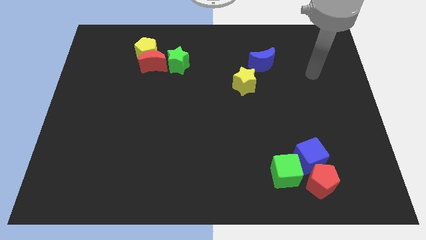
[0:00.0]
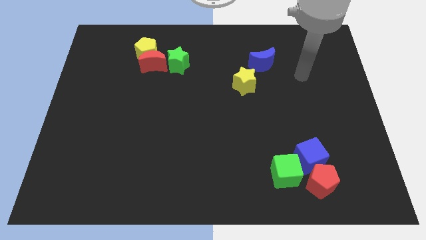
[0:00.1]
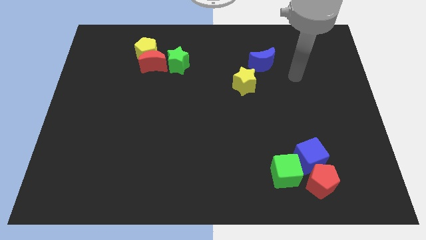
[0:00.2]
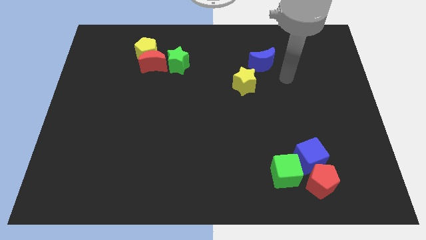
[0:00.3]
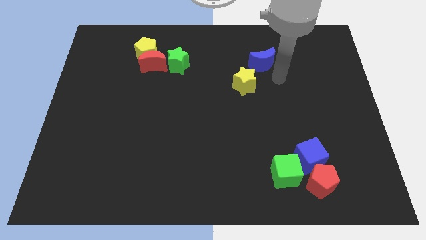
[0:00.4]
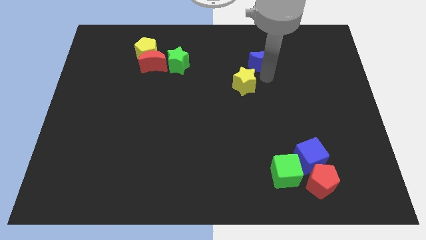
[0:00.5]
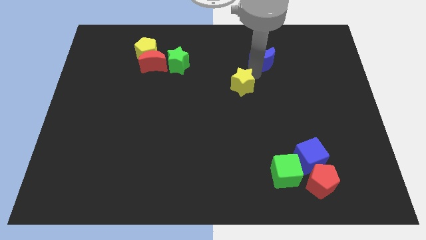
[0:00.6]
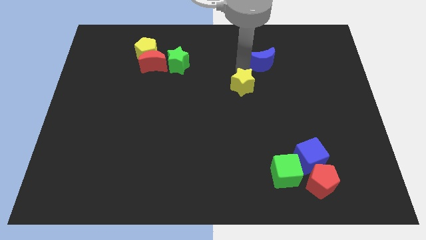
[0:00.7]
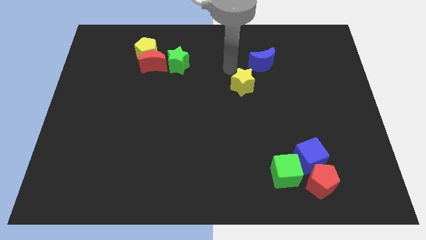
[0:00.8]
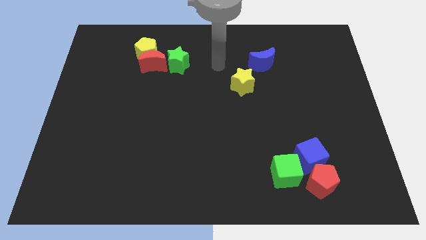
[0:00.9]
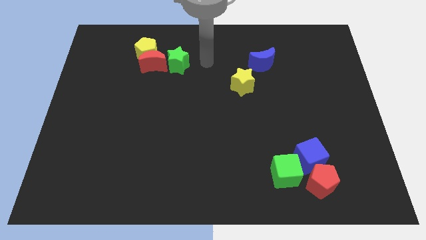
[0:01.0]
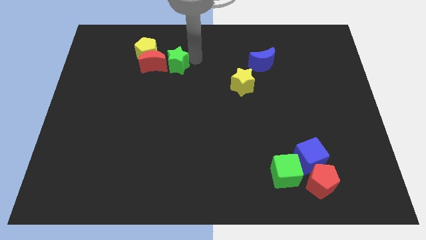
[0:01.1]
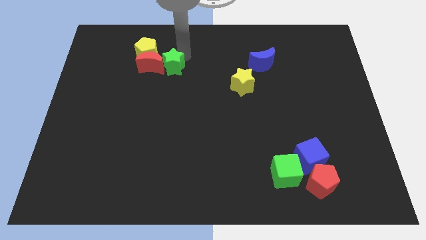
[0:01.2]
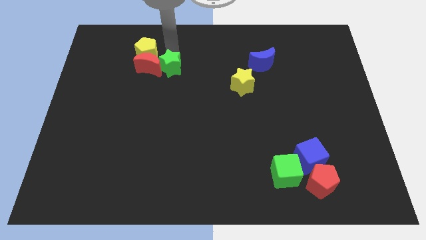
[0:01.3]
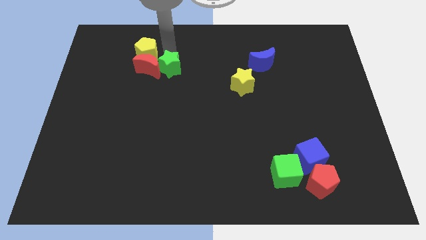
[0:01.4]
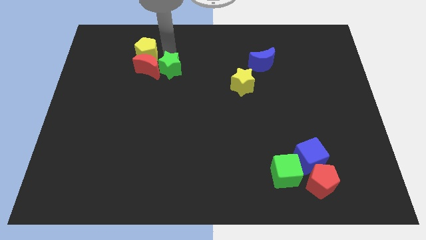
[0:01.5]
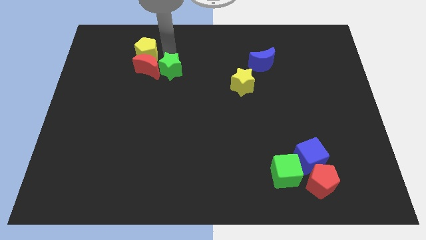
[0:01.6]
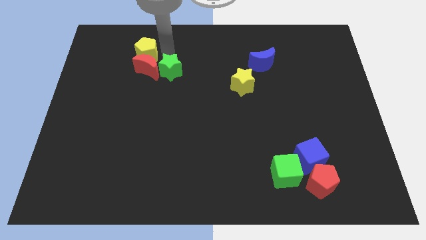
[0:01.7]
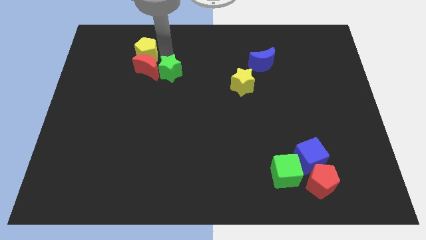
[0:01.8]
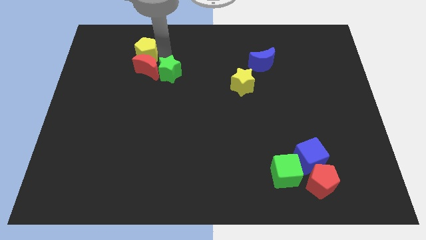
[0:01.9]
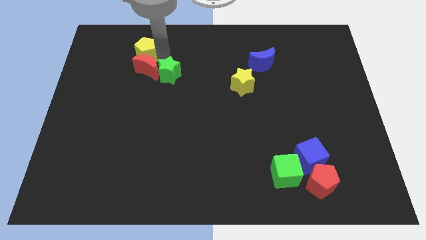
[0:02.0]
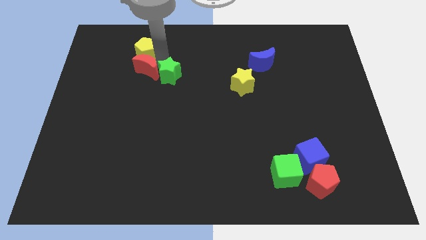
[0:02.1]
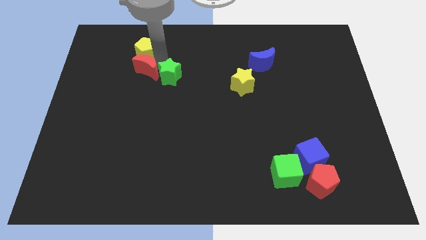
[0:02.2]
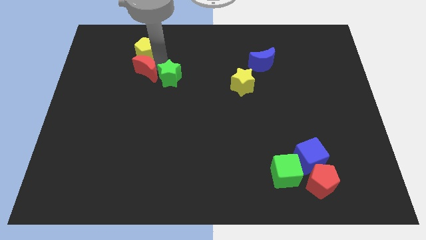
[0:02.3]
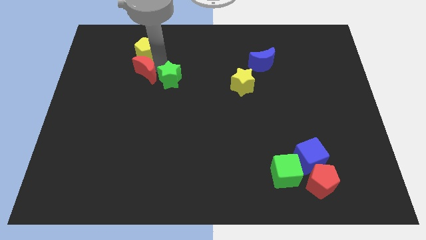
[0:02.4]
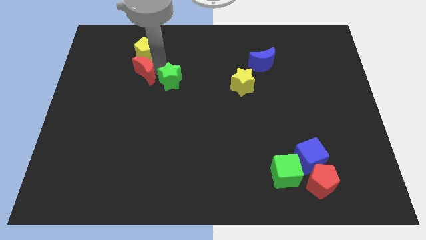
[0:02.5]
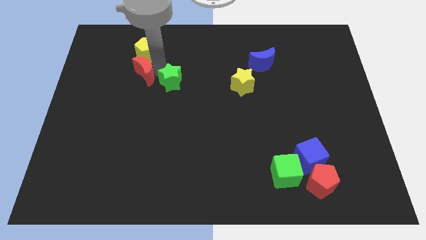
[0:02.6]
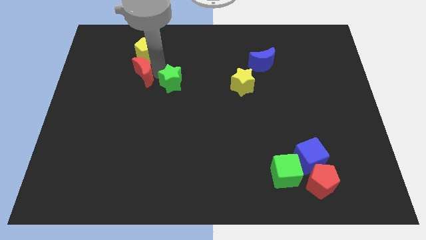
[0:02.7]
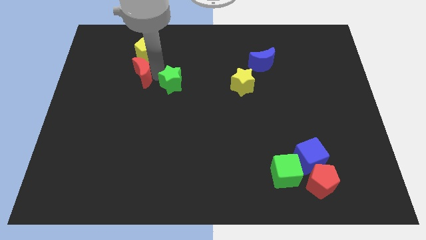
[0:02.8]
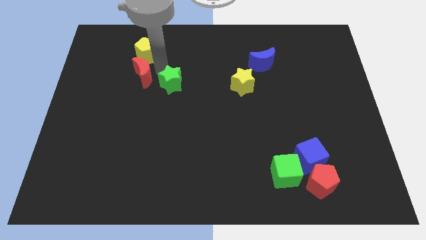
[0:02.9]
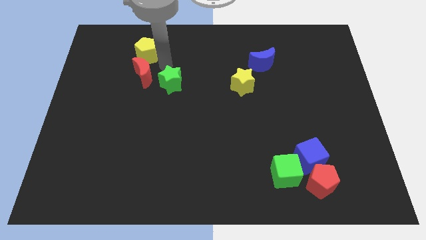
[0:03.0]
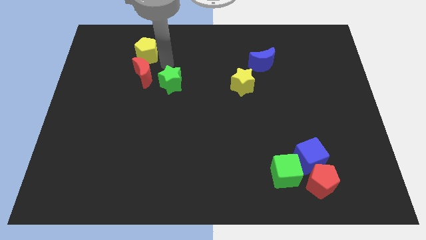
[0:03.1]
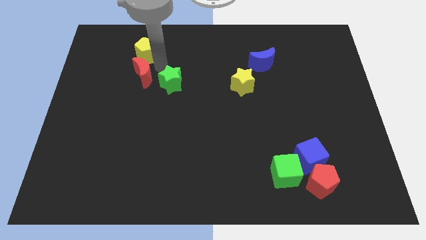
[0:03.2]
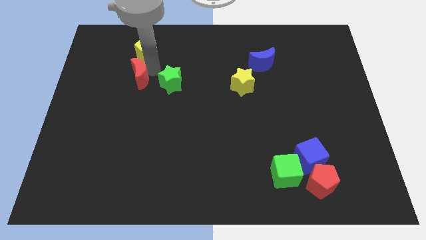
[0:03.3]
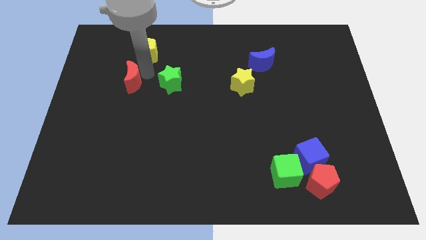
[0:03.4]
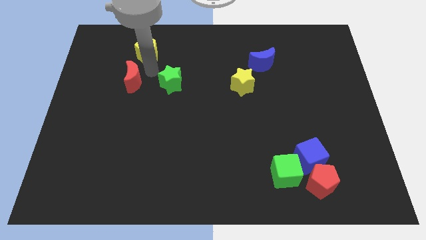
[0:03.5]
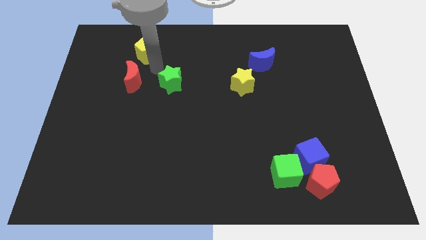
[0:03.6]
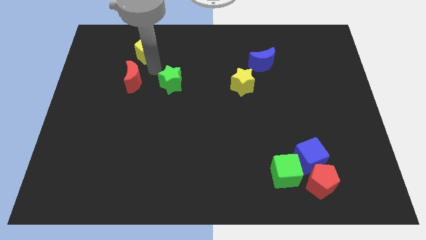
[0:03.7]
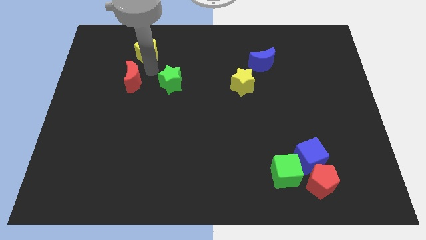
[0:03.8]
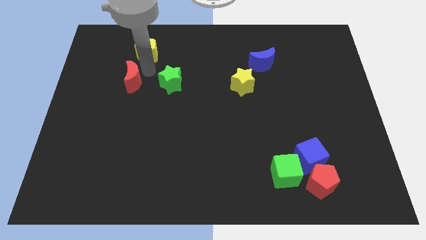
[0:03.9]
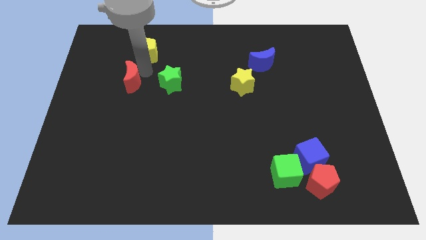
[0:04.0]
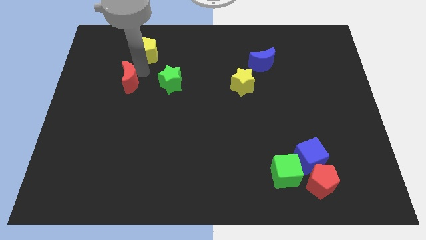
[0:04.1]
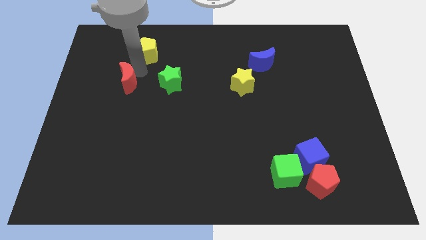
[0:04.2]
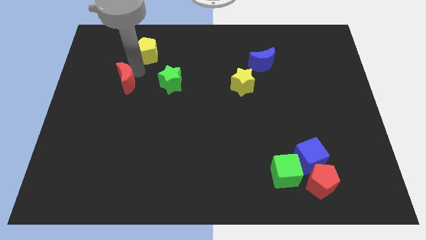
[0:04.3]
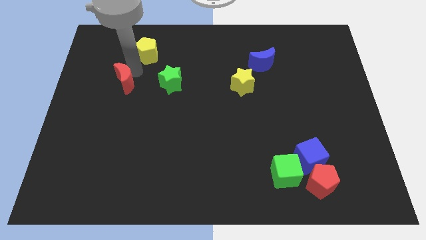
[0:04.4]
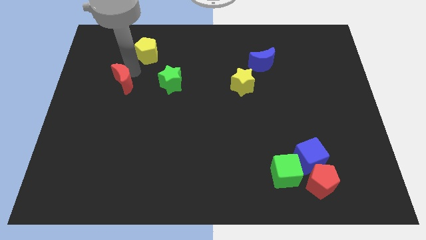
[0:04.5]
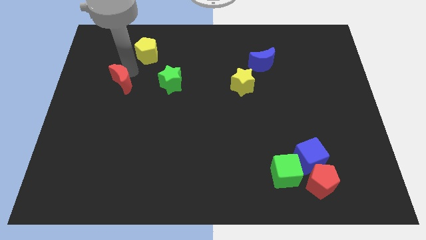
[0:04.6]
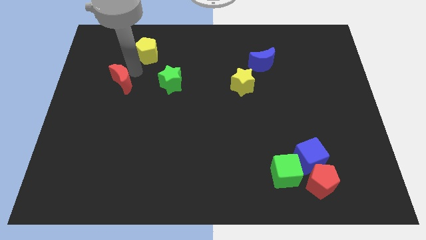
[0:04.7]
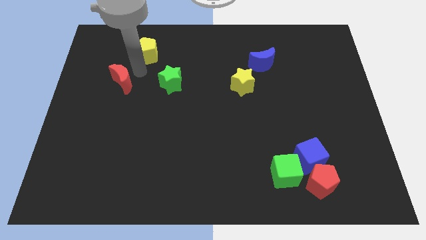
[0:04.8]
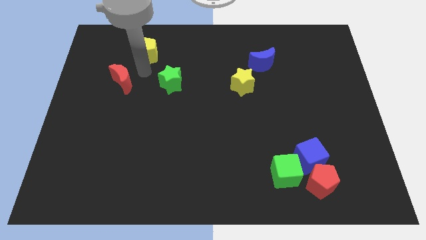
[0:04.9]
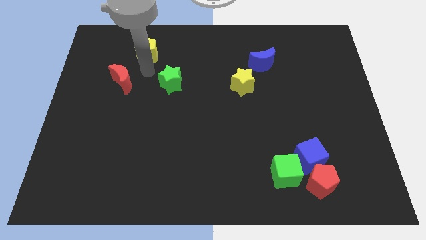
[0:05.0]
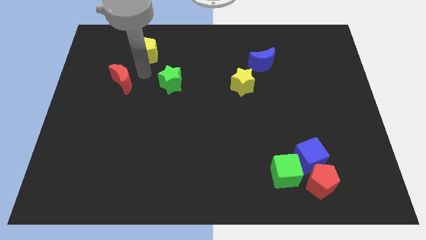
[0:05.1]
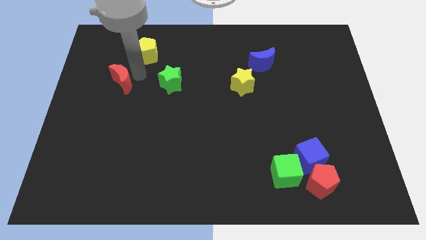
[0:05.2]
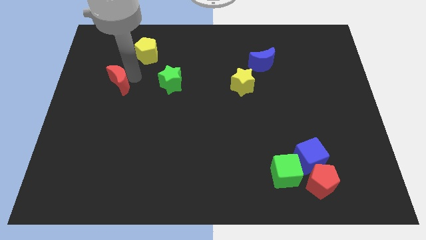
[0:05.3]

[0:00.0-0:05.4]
separate the red moon from the yellow pentagon and green star

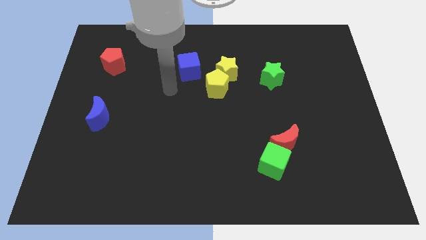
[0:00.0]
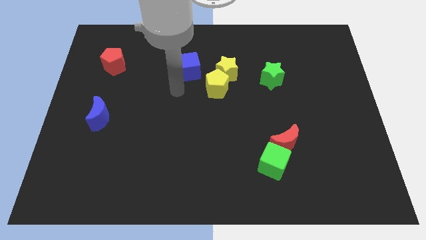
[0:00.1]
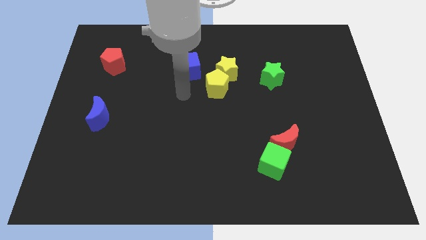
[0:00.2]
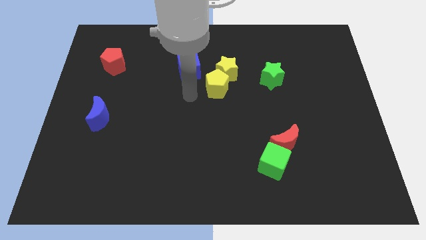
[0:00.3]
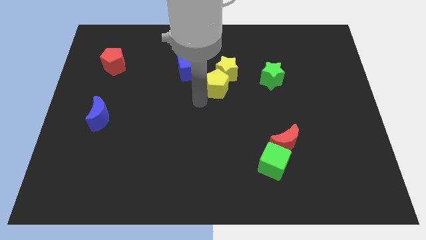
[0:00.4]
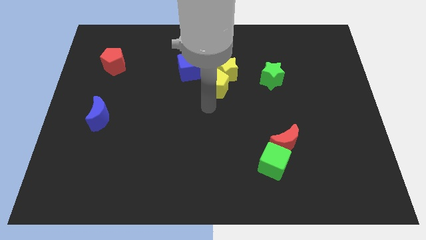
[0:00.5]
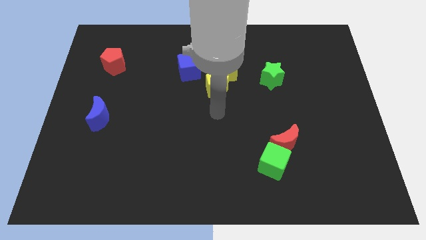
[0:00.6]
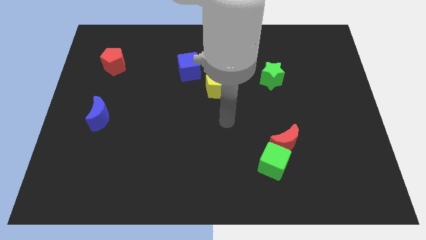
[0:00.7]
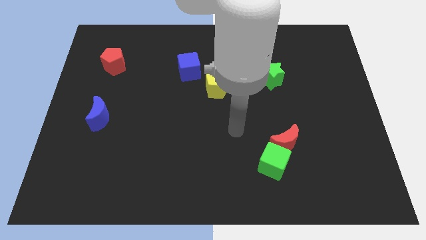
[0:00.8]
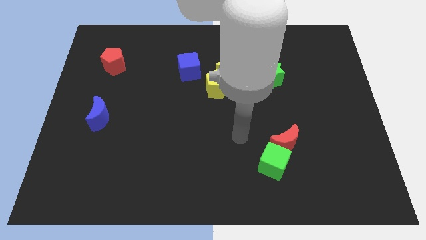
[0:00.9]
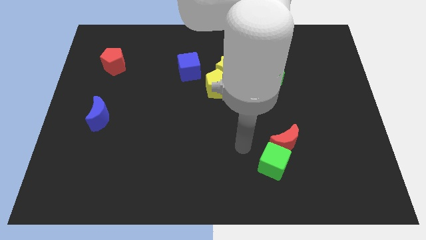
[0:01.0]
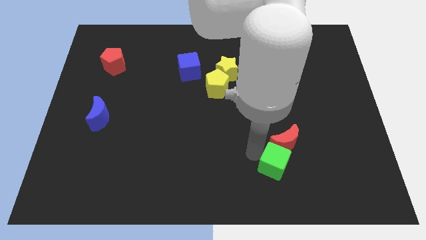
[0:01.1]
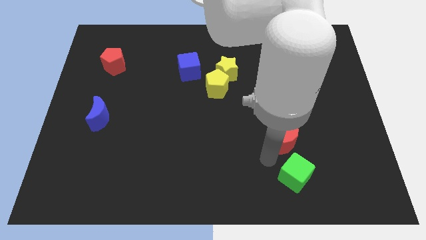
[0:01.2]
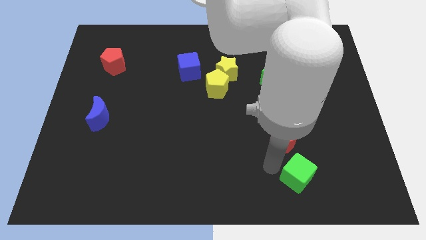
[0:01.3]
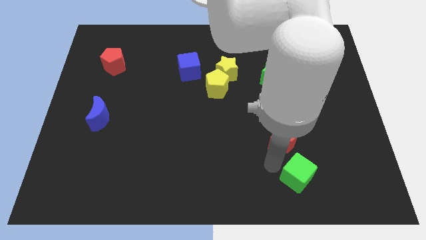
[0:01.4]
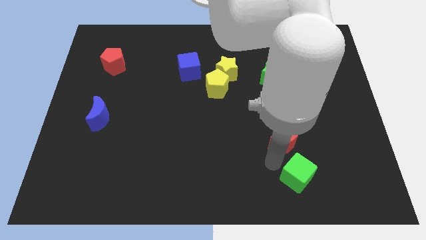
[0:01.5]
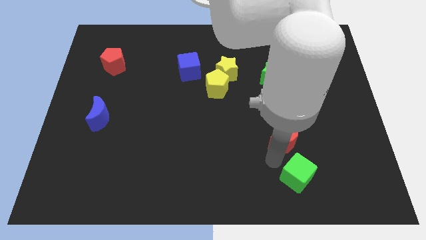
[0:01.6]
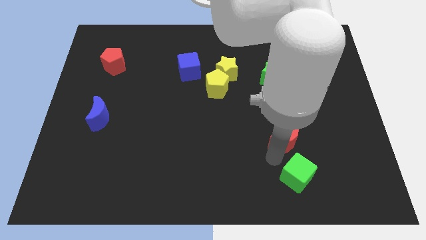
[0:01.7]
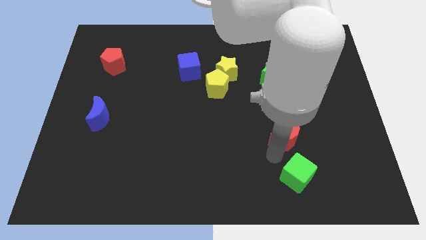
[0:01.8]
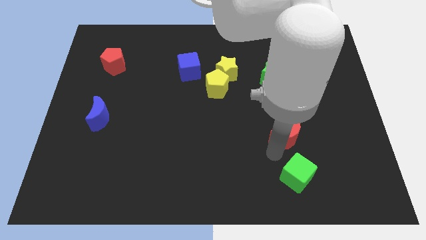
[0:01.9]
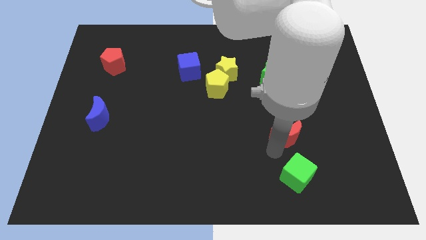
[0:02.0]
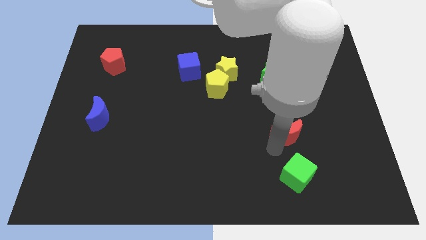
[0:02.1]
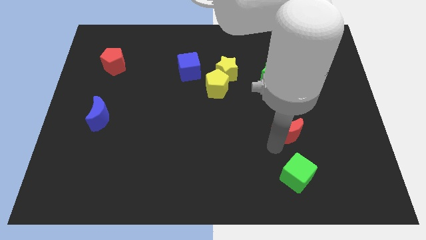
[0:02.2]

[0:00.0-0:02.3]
move the red moon away from the green cube

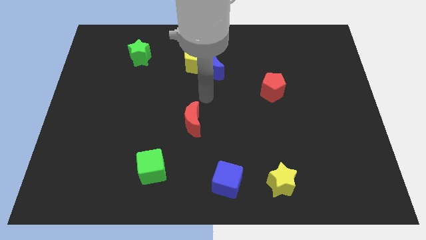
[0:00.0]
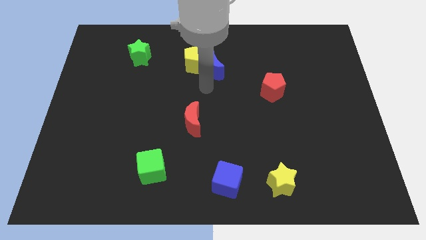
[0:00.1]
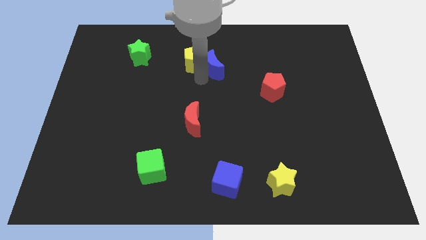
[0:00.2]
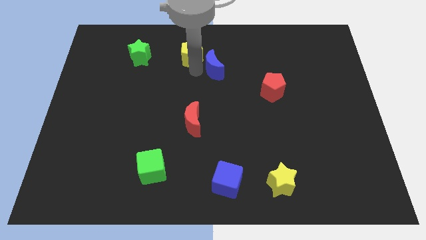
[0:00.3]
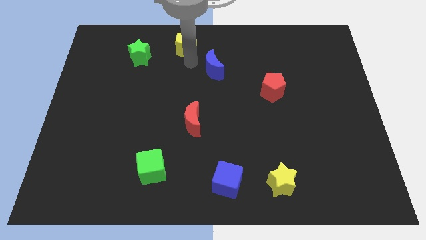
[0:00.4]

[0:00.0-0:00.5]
pull the blue moon apart from the yellow pentagon

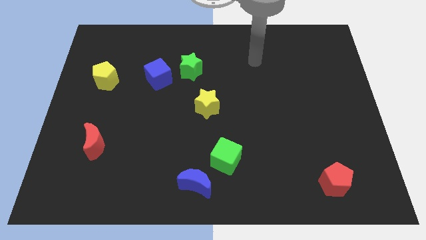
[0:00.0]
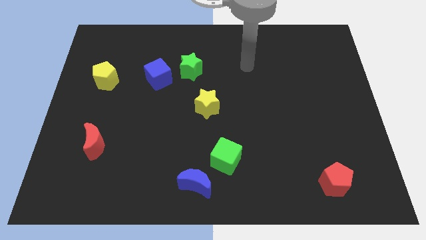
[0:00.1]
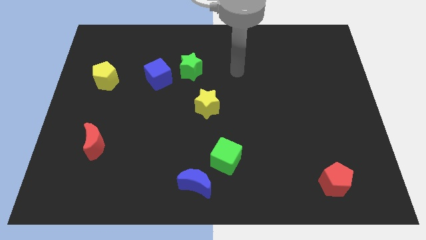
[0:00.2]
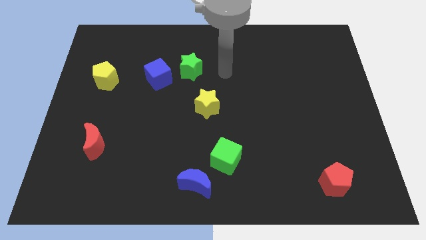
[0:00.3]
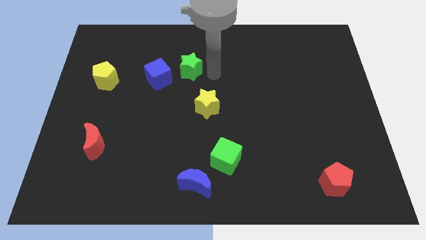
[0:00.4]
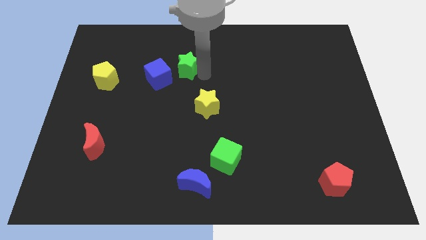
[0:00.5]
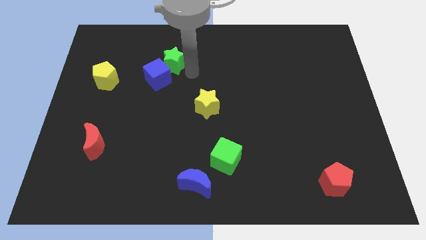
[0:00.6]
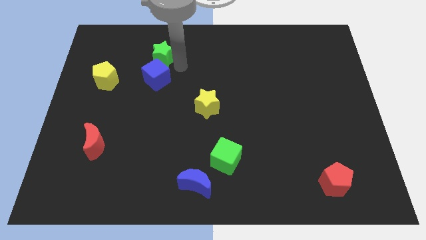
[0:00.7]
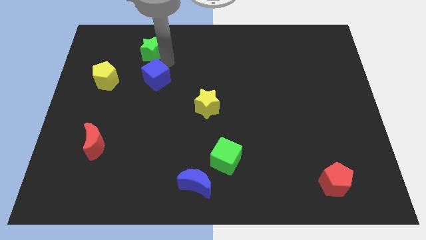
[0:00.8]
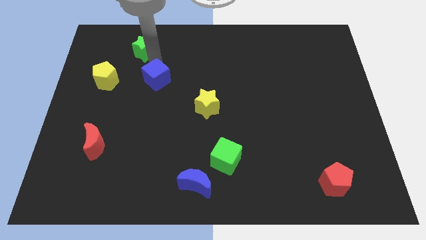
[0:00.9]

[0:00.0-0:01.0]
move the blue cube away from the green star

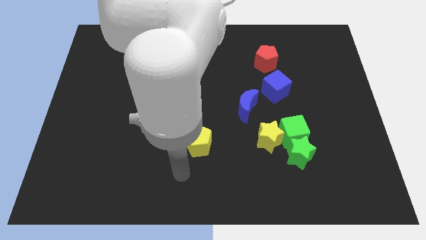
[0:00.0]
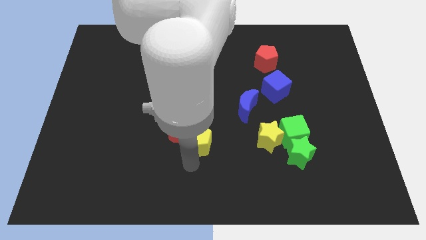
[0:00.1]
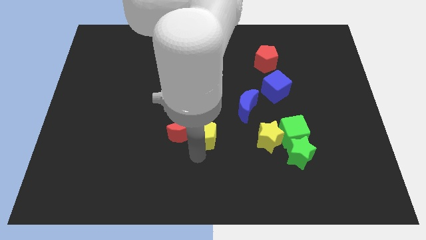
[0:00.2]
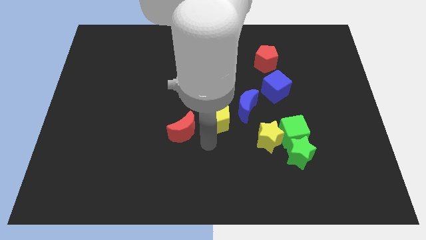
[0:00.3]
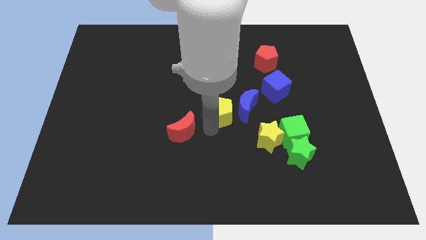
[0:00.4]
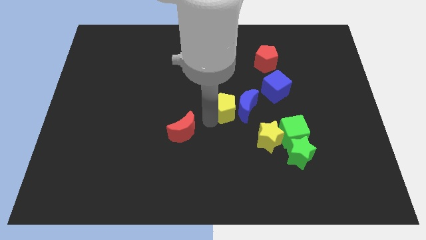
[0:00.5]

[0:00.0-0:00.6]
pull the red moon apart from the yellow pentagon
